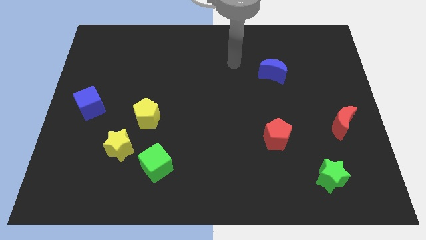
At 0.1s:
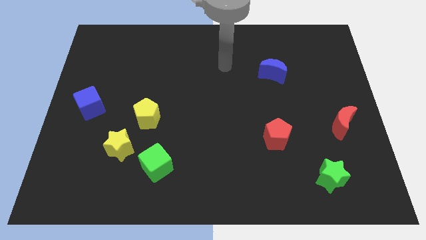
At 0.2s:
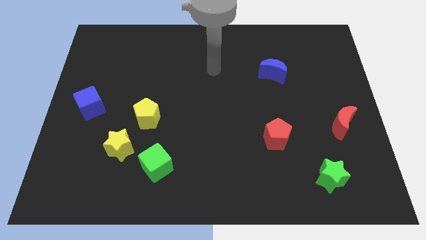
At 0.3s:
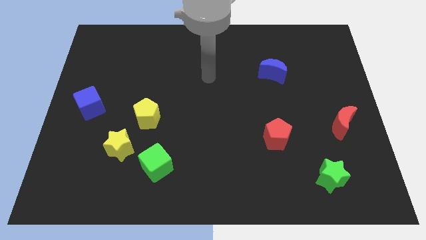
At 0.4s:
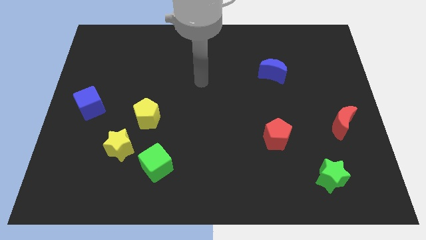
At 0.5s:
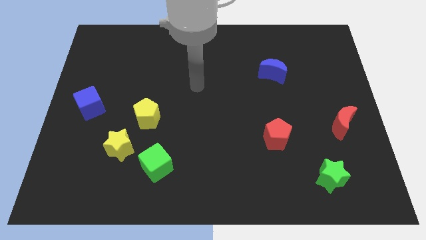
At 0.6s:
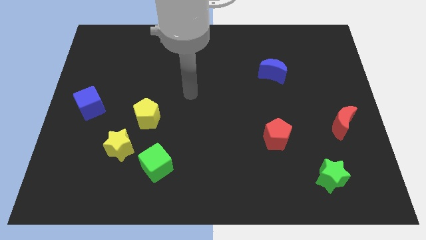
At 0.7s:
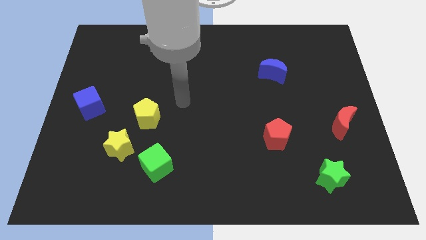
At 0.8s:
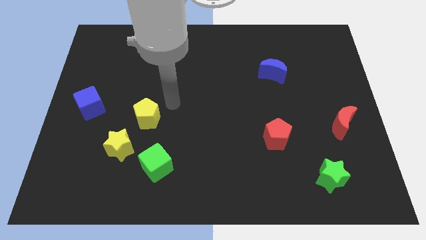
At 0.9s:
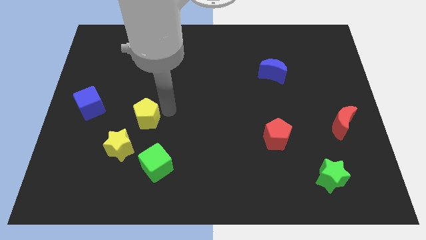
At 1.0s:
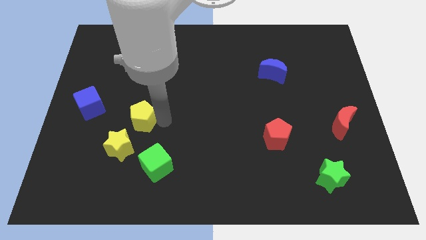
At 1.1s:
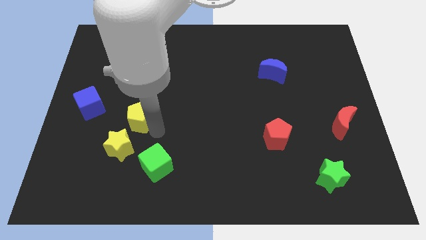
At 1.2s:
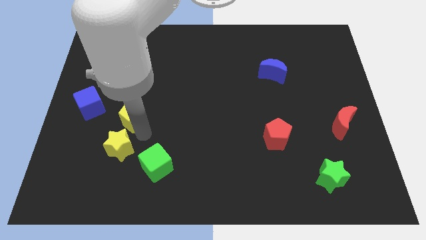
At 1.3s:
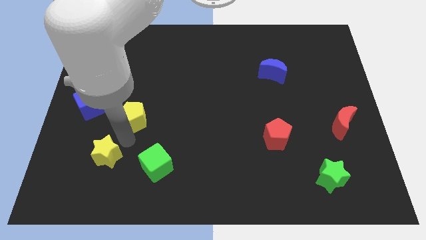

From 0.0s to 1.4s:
separate the yellow pentagon from the yellow star

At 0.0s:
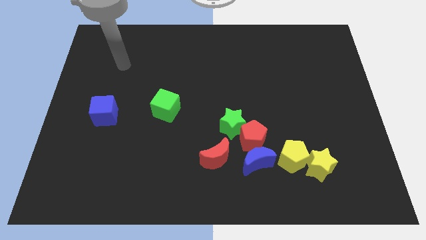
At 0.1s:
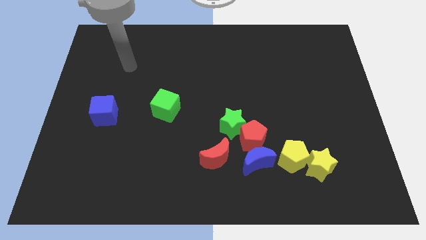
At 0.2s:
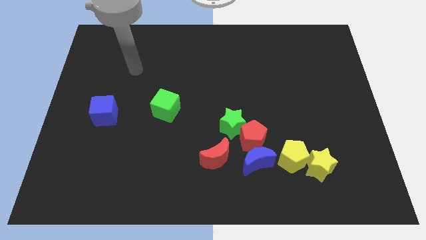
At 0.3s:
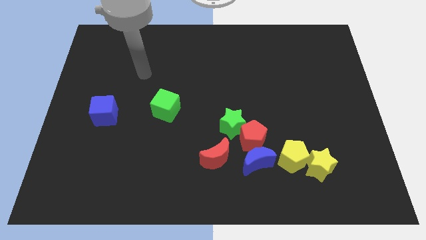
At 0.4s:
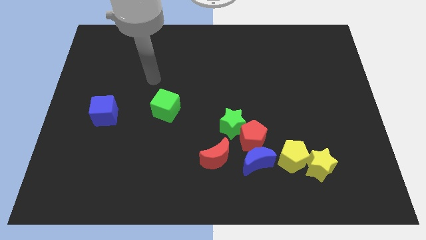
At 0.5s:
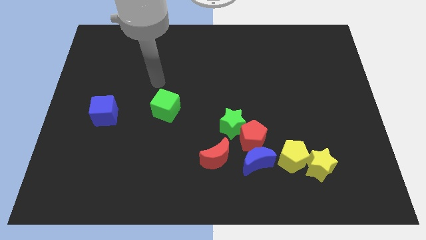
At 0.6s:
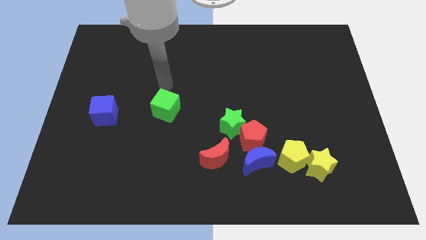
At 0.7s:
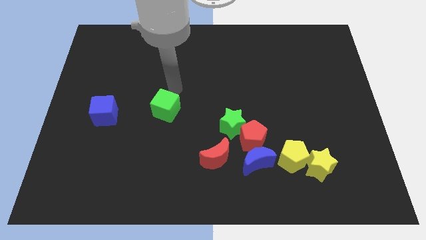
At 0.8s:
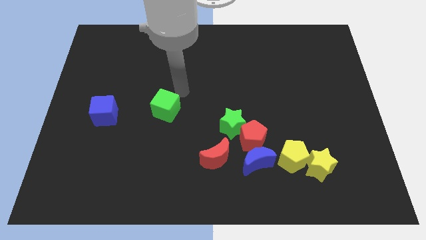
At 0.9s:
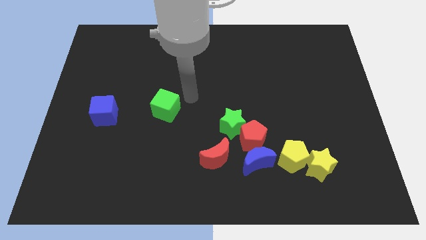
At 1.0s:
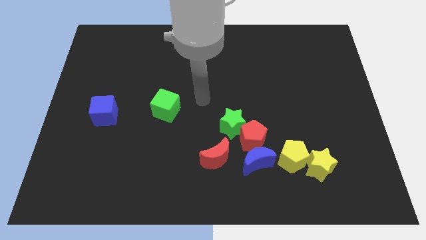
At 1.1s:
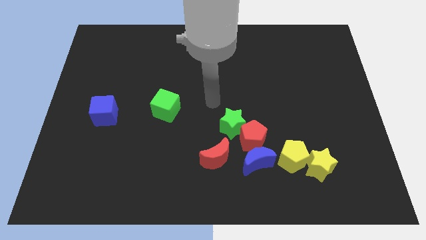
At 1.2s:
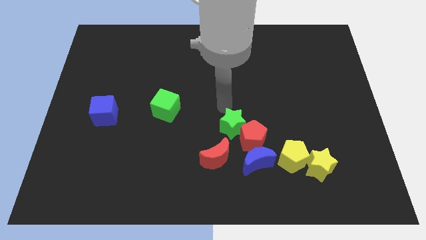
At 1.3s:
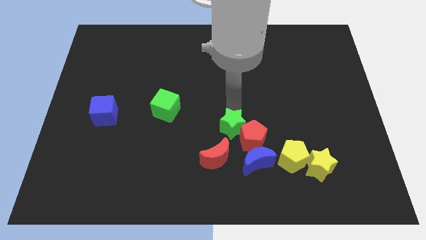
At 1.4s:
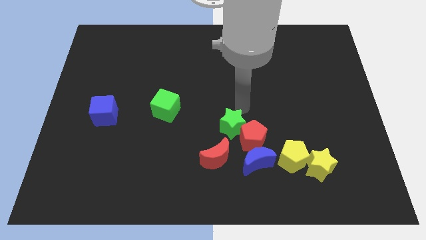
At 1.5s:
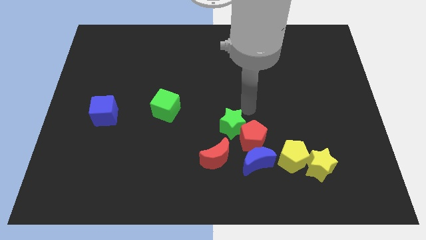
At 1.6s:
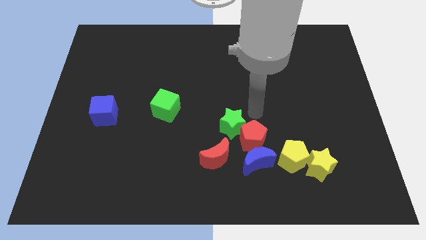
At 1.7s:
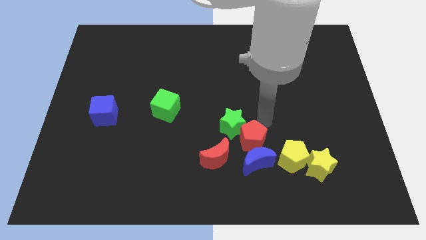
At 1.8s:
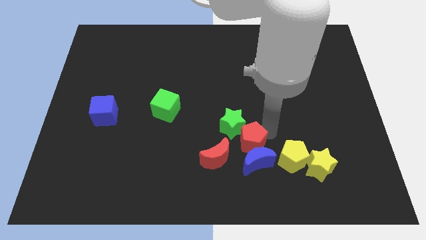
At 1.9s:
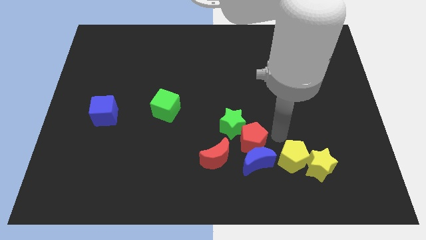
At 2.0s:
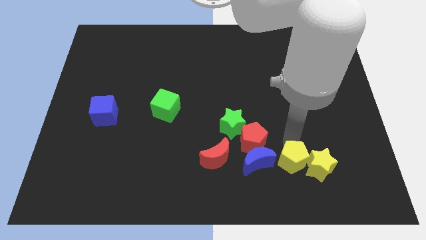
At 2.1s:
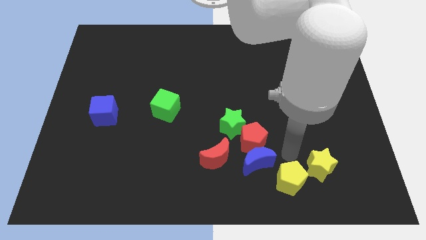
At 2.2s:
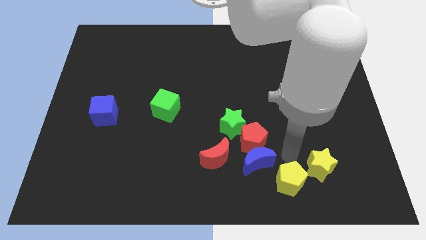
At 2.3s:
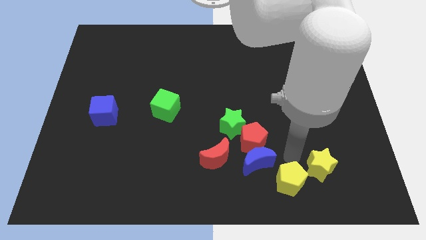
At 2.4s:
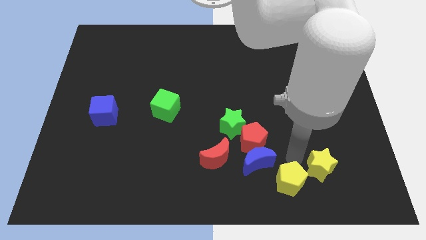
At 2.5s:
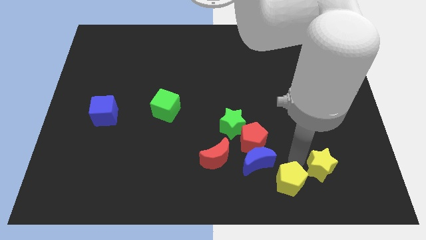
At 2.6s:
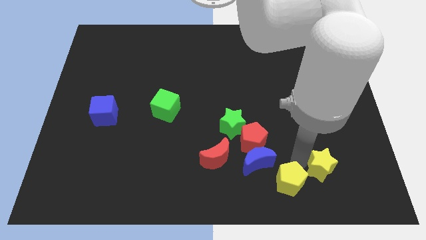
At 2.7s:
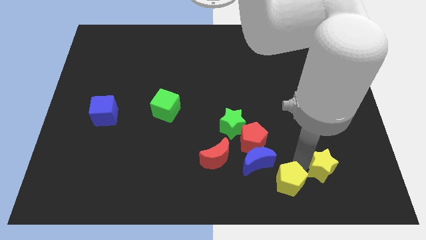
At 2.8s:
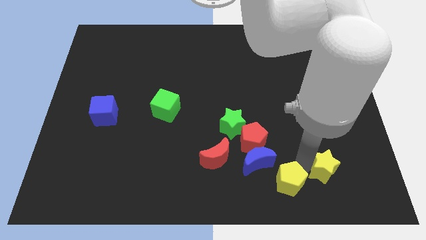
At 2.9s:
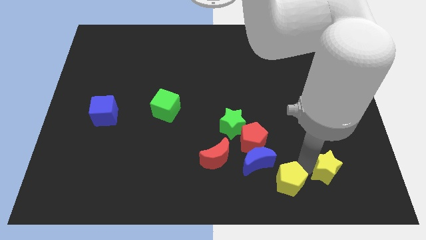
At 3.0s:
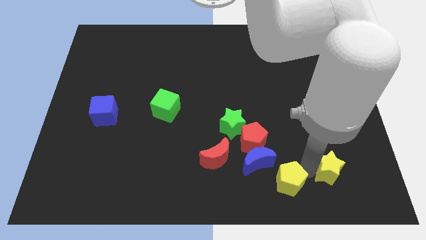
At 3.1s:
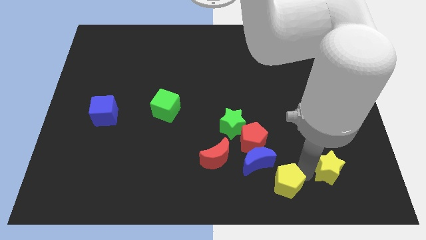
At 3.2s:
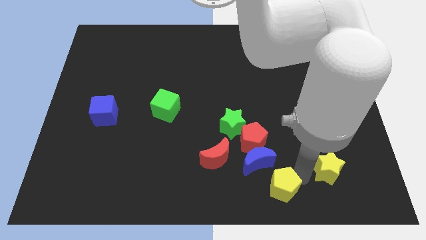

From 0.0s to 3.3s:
move the yellow star away from the yellow pentagon

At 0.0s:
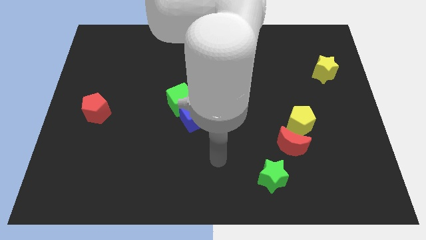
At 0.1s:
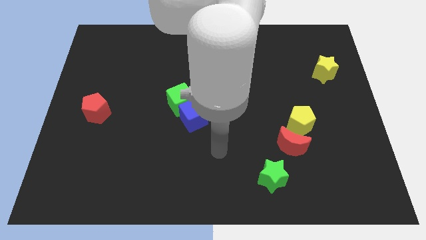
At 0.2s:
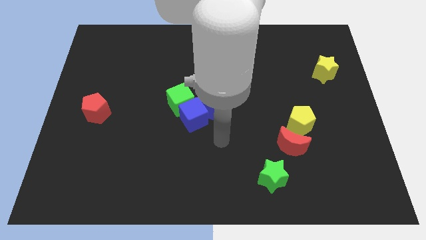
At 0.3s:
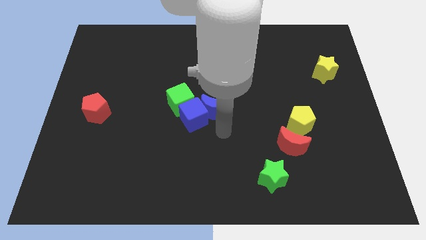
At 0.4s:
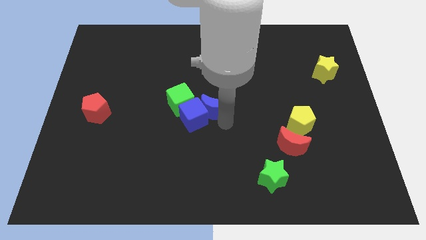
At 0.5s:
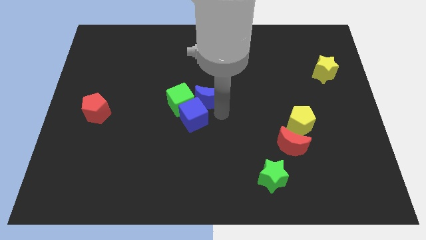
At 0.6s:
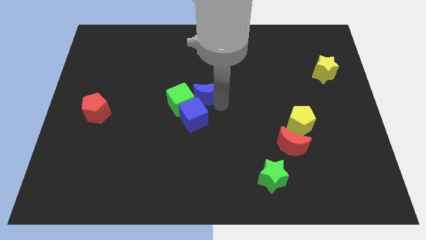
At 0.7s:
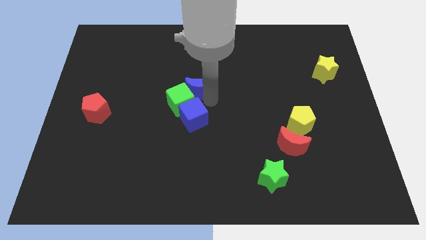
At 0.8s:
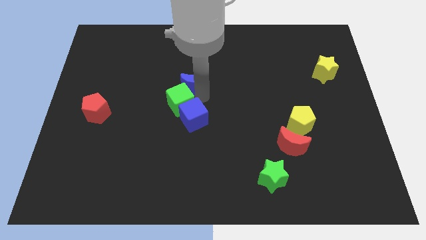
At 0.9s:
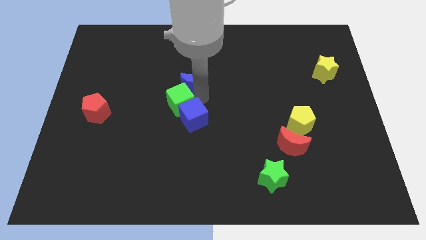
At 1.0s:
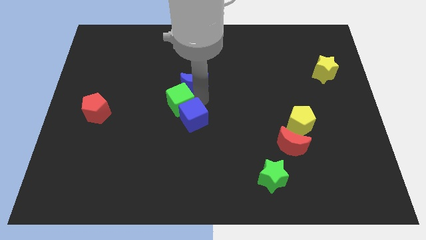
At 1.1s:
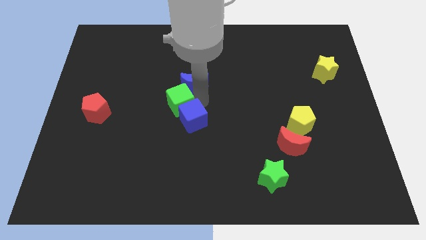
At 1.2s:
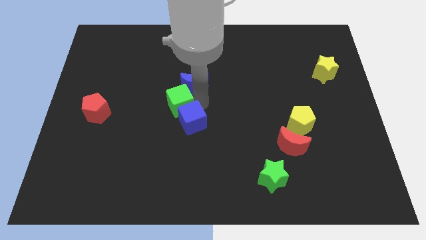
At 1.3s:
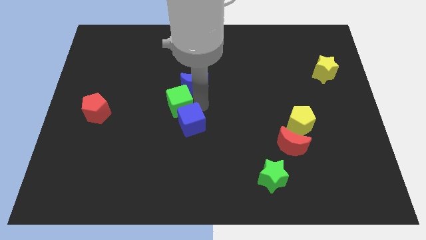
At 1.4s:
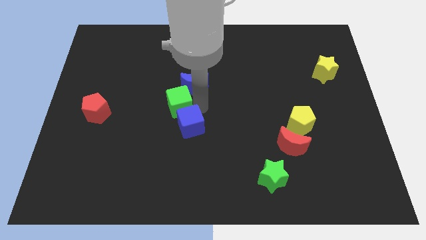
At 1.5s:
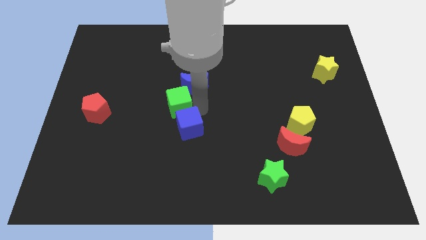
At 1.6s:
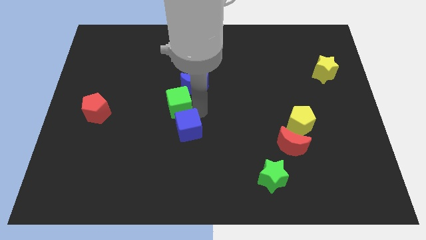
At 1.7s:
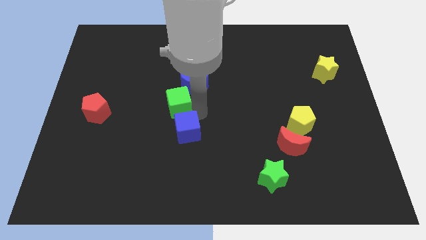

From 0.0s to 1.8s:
pull the blue cube apart from the blue moon and green cube

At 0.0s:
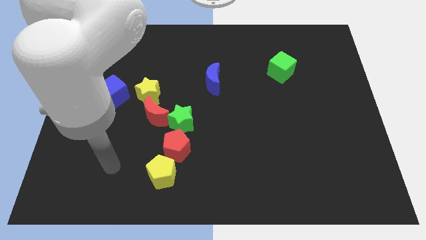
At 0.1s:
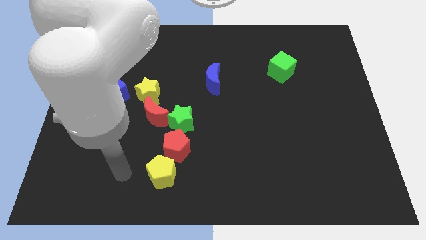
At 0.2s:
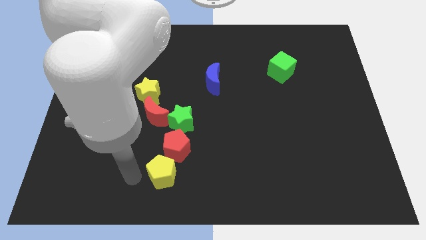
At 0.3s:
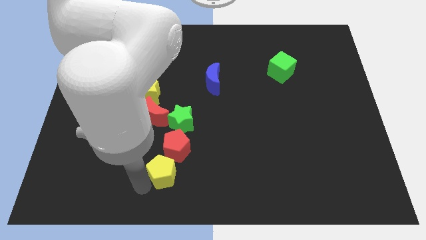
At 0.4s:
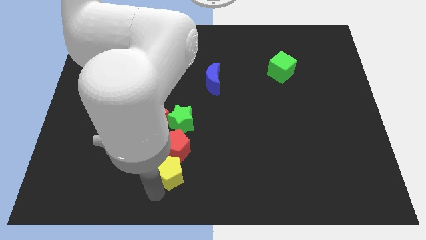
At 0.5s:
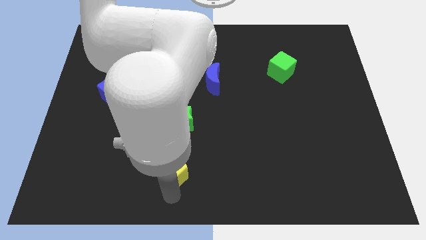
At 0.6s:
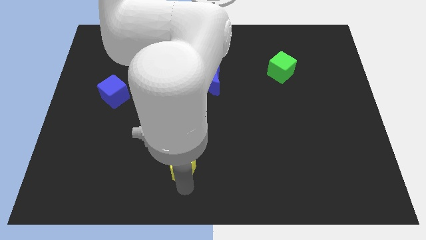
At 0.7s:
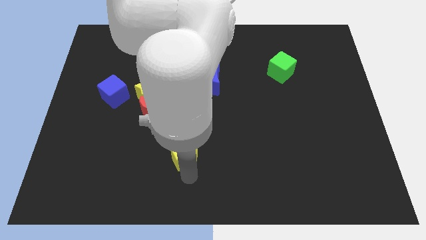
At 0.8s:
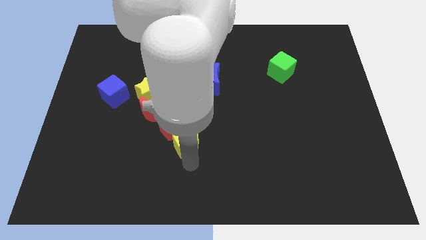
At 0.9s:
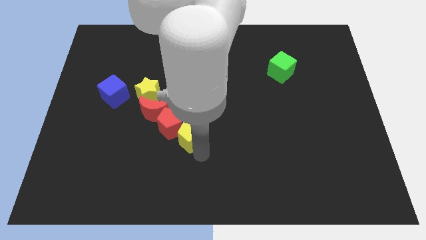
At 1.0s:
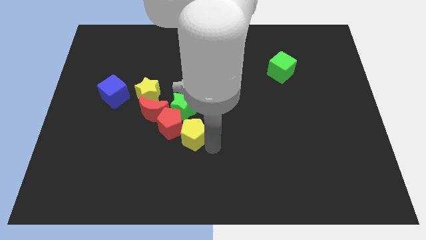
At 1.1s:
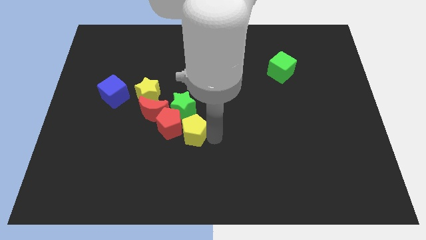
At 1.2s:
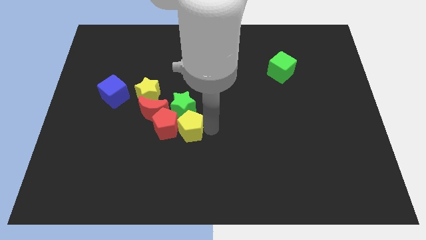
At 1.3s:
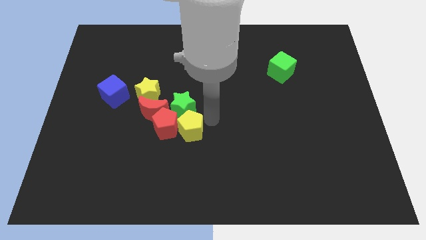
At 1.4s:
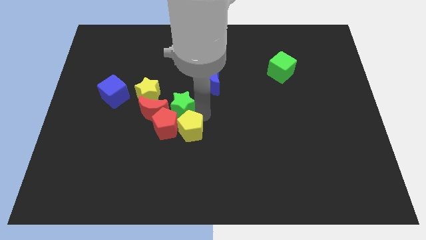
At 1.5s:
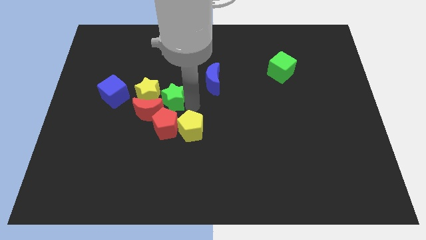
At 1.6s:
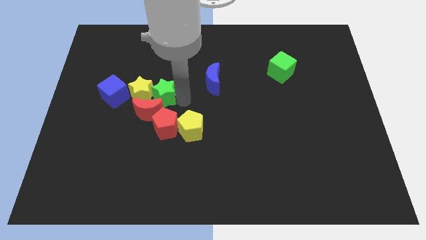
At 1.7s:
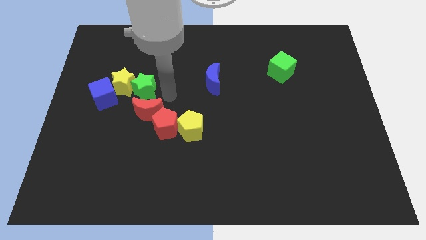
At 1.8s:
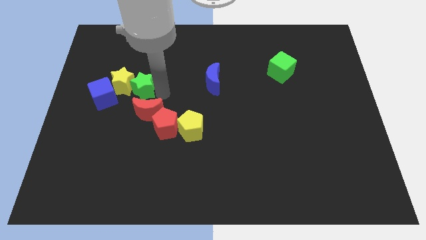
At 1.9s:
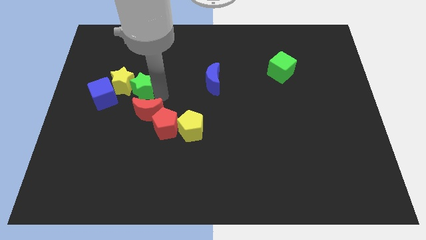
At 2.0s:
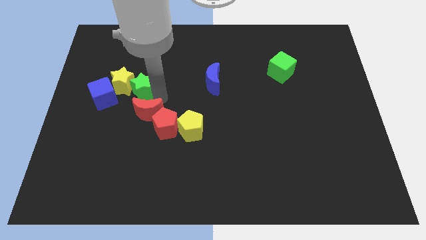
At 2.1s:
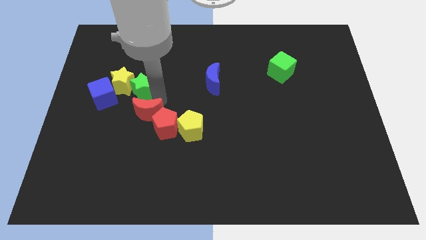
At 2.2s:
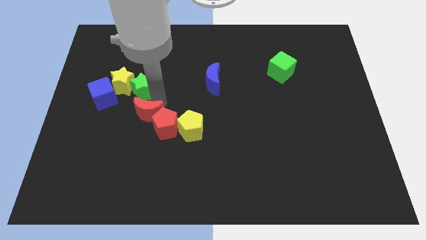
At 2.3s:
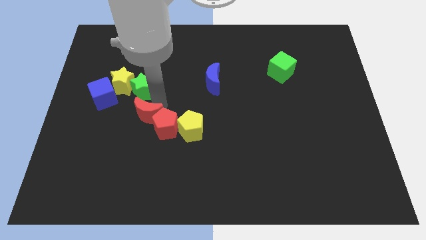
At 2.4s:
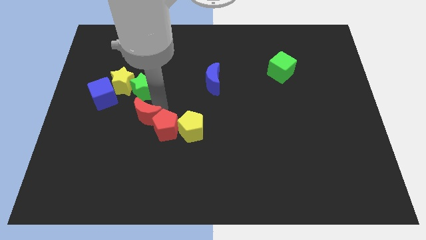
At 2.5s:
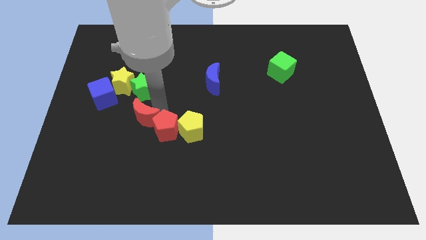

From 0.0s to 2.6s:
move the red moon away from the green star and yellow star

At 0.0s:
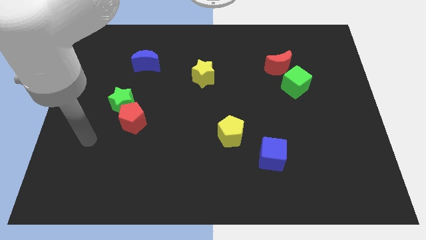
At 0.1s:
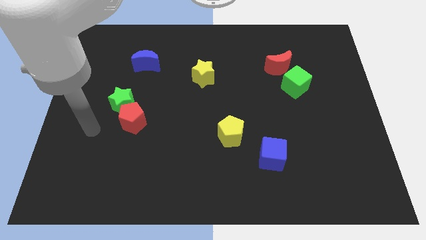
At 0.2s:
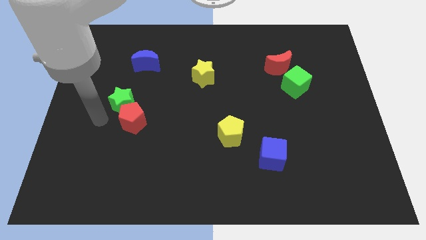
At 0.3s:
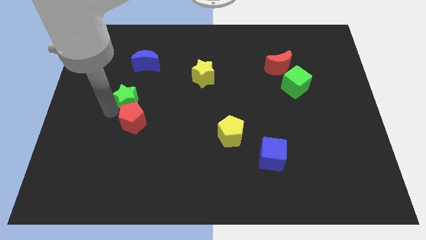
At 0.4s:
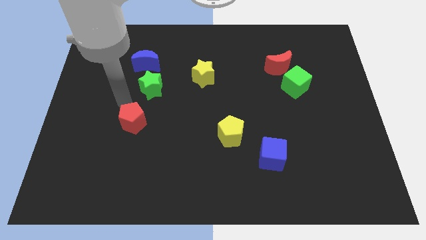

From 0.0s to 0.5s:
pull the red pentagon apart from the green star
